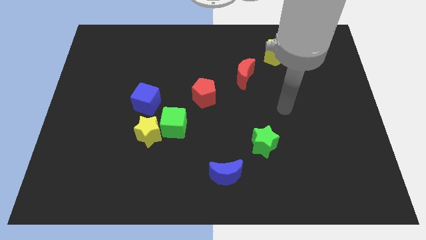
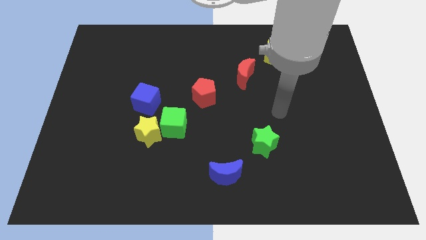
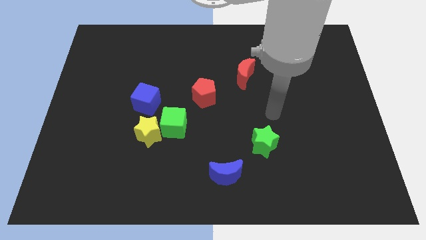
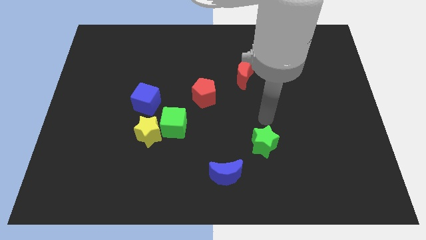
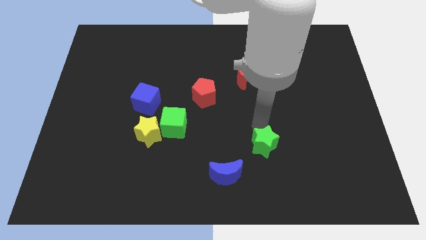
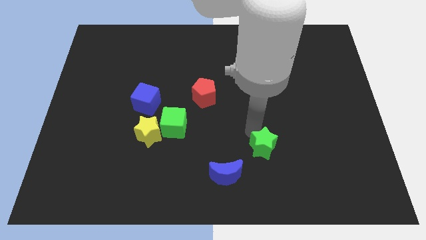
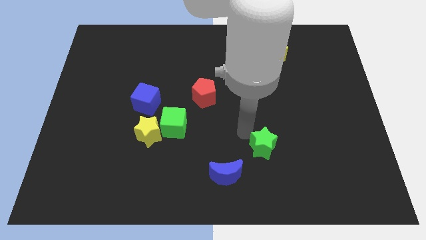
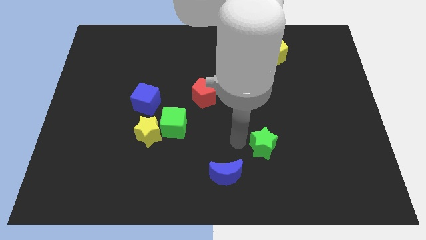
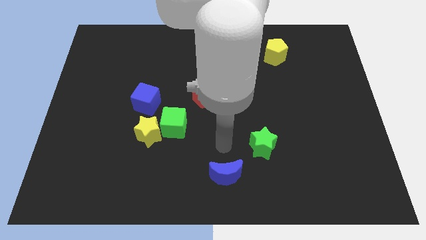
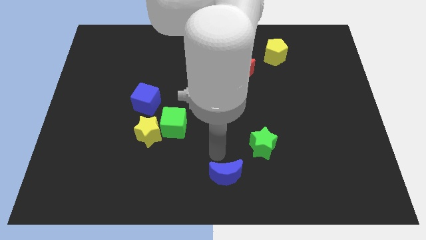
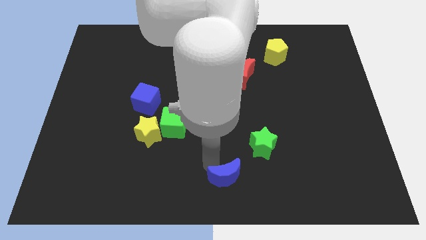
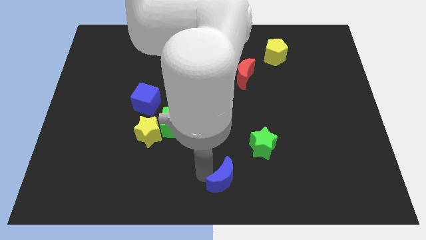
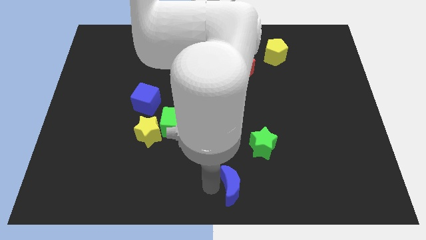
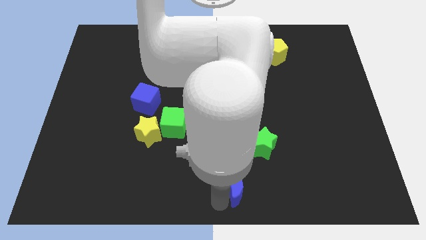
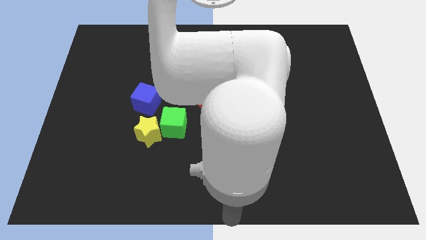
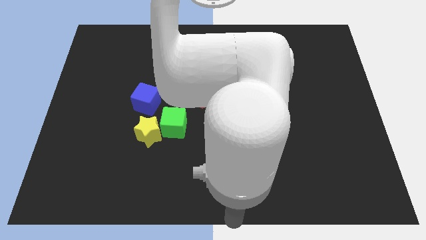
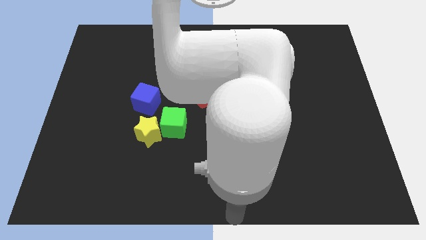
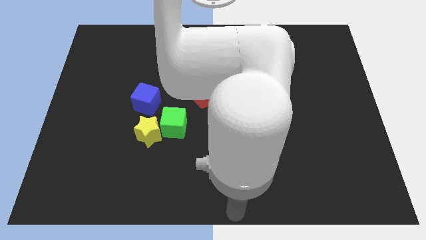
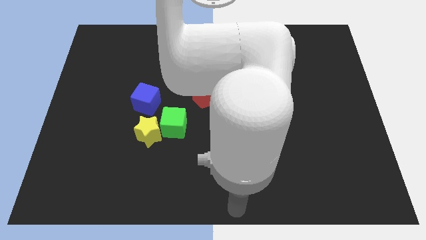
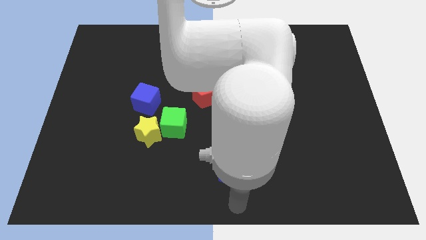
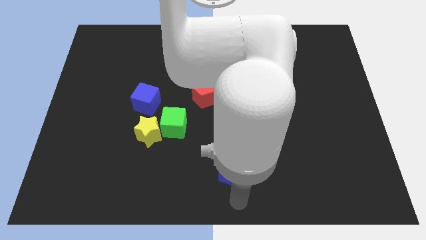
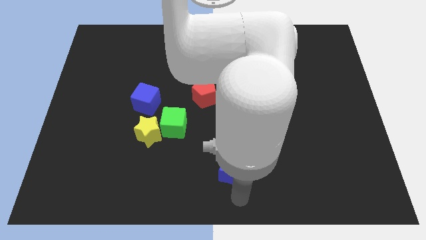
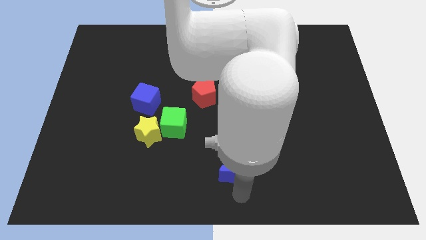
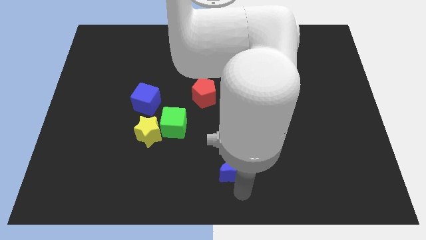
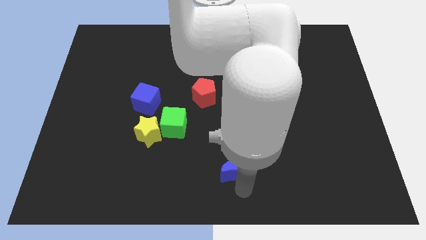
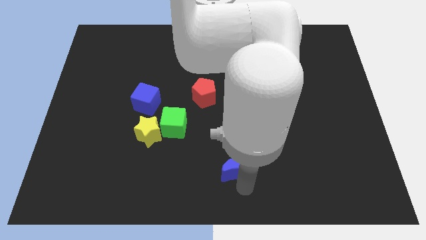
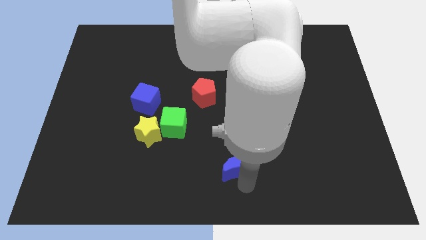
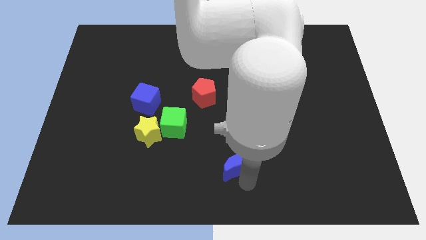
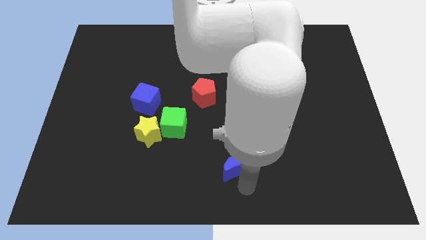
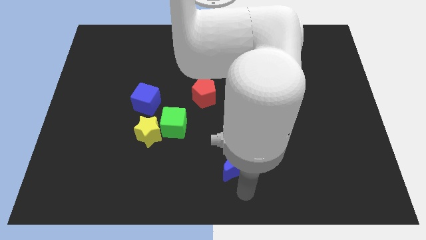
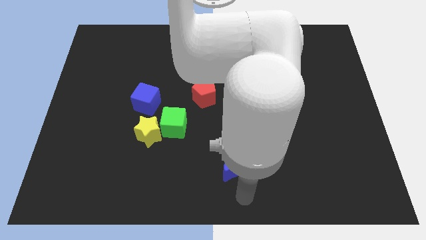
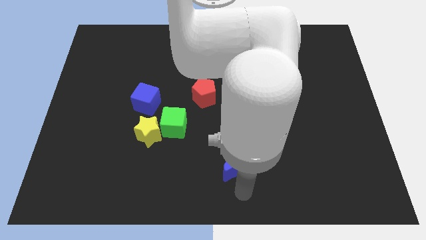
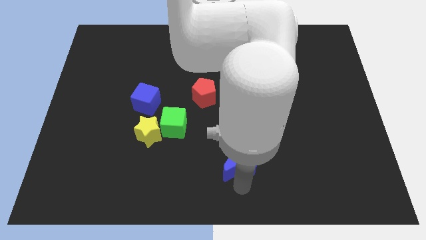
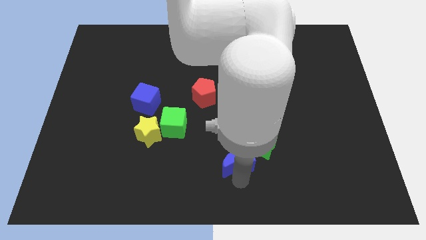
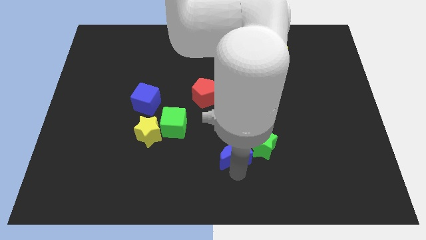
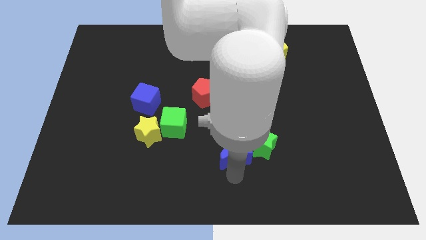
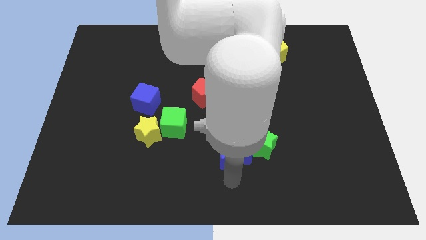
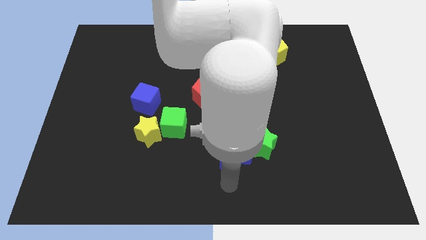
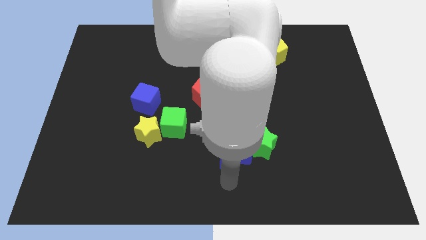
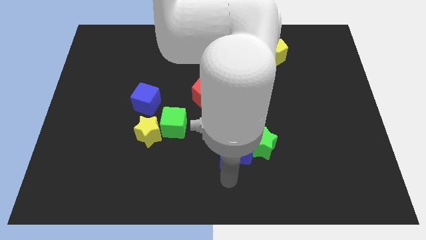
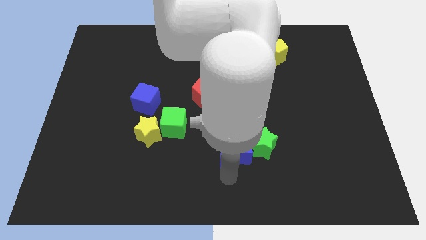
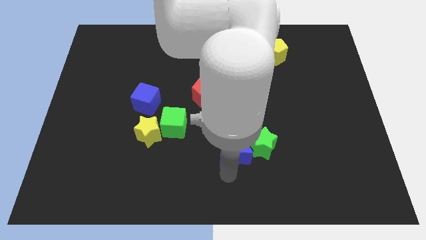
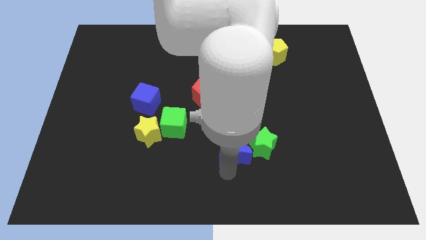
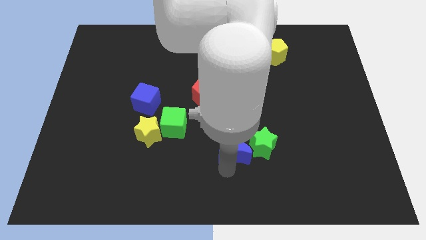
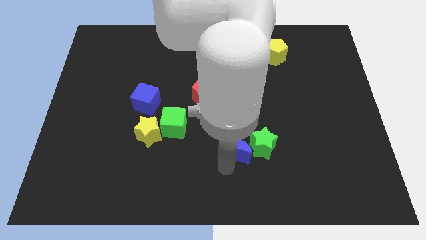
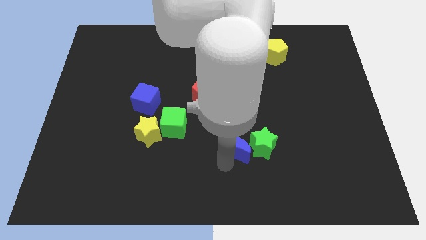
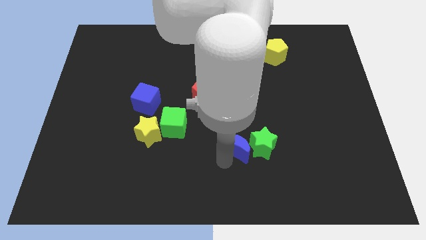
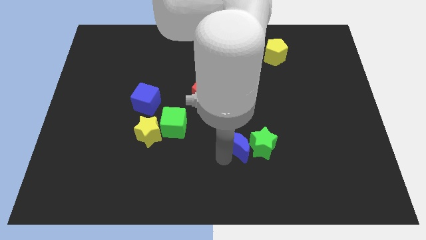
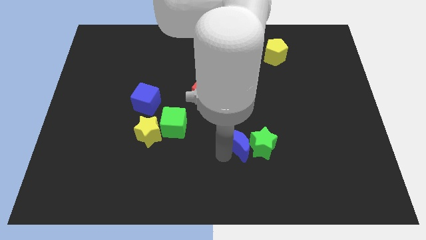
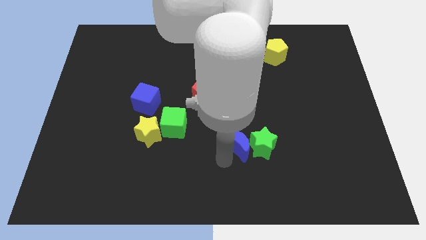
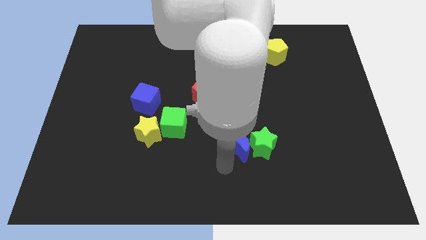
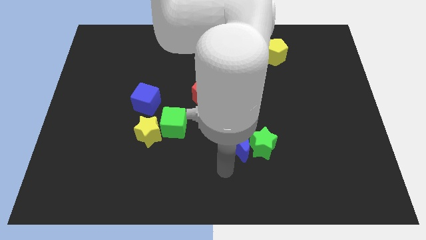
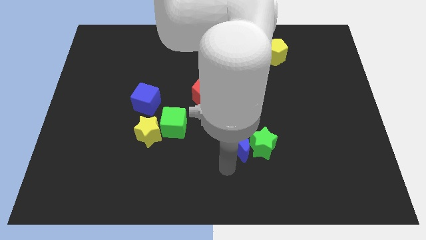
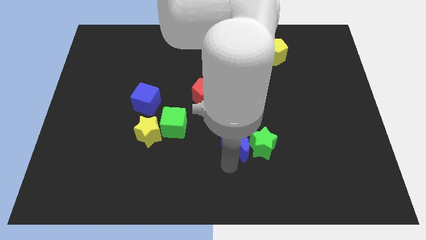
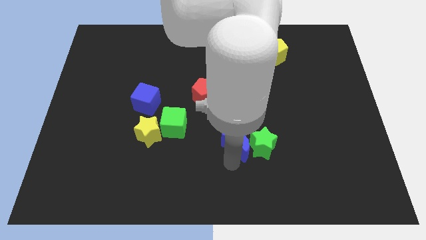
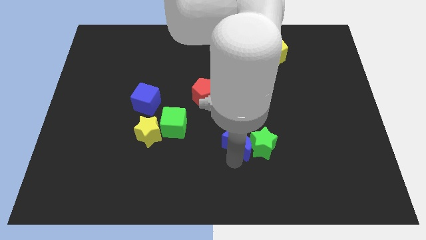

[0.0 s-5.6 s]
move the blue moon upwards and right a little

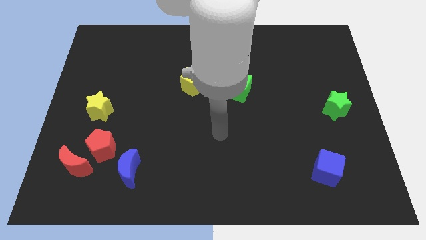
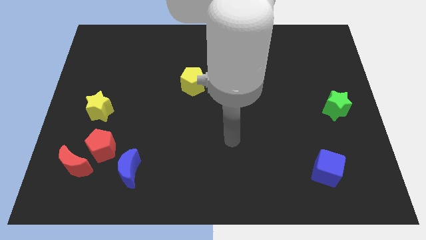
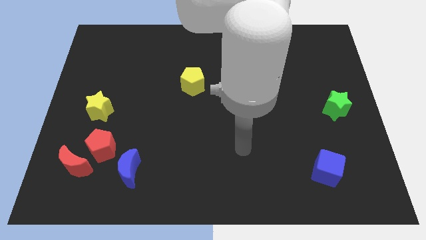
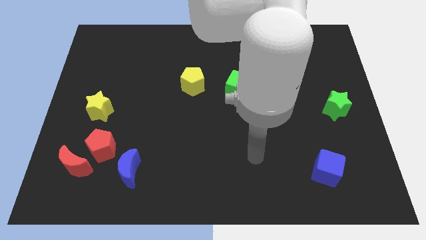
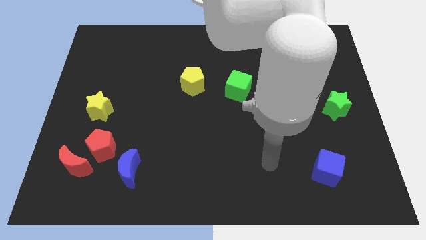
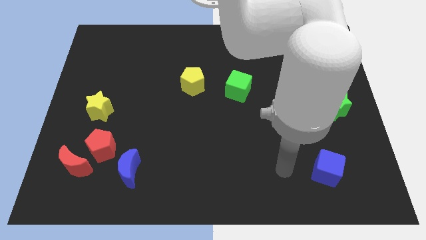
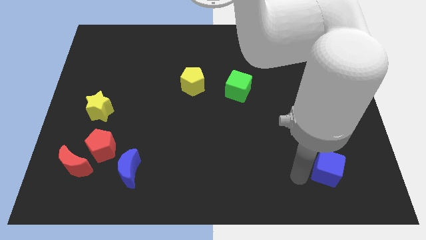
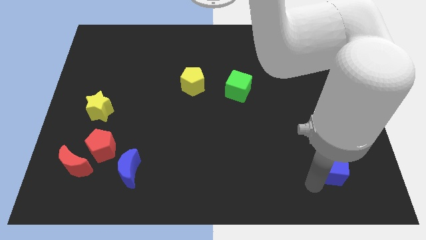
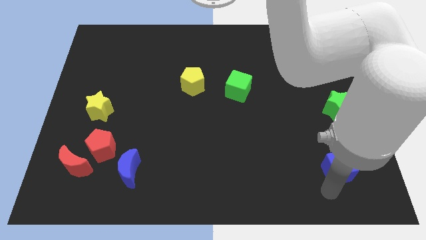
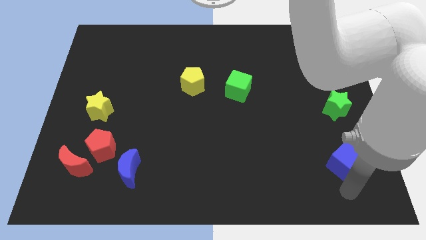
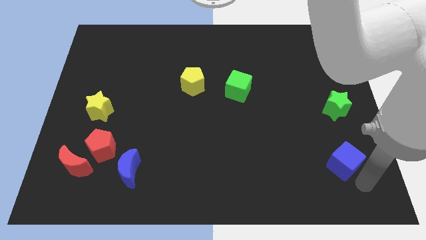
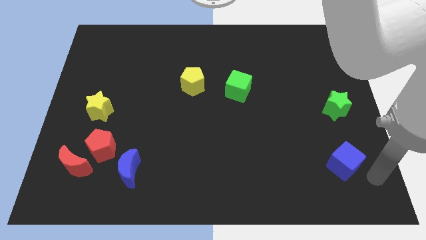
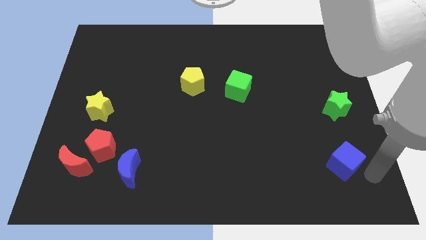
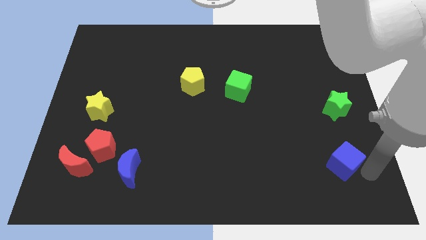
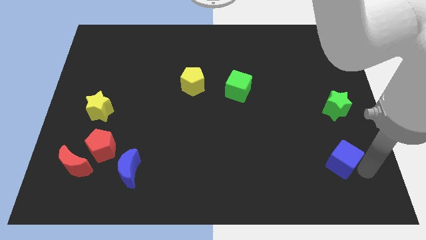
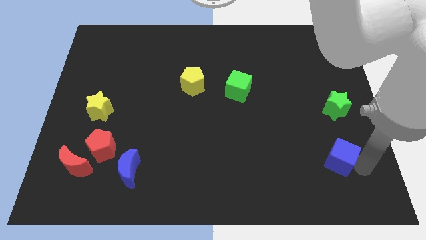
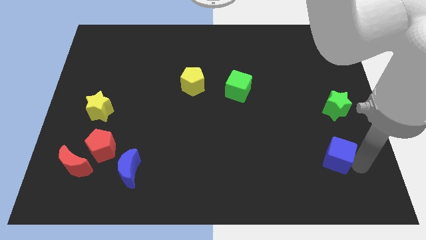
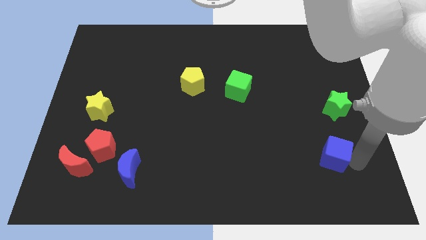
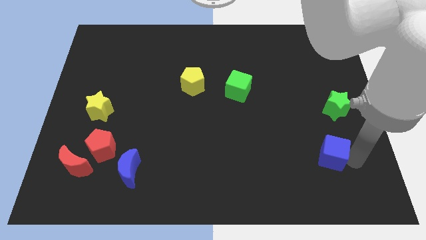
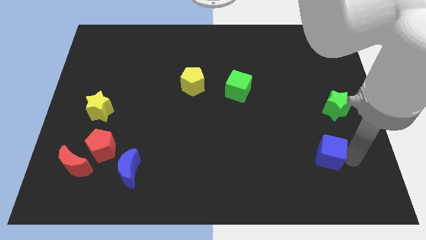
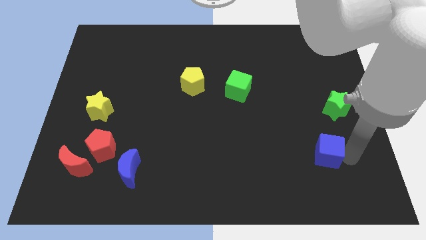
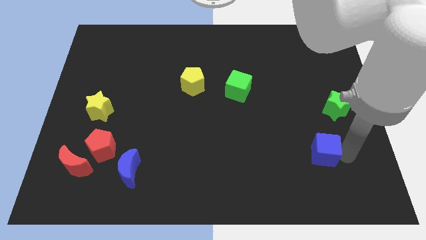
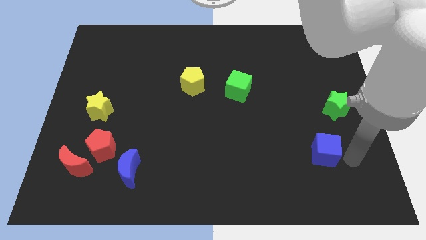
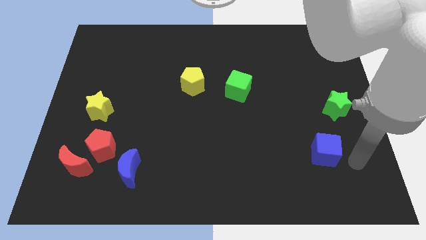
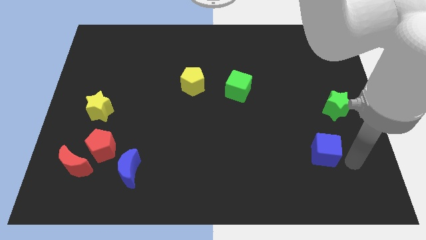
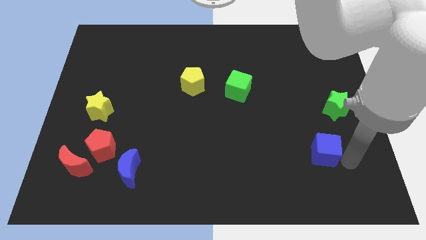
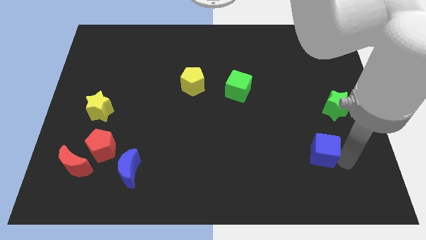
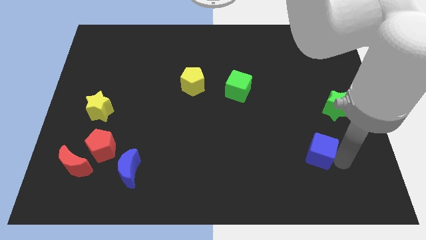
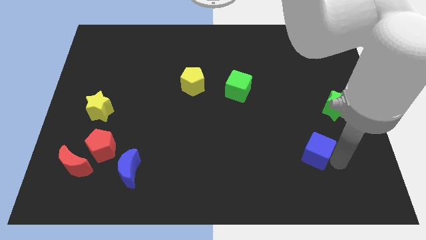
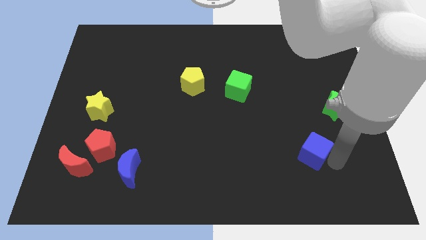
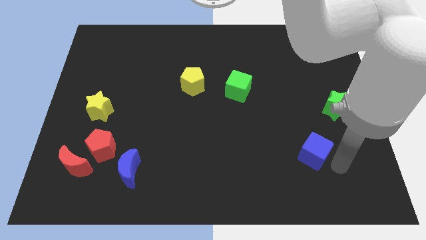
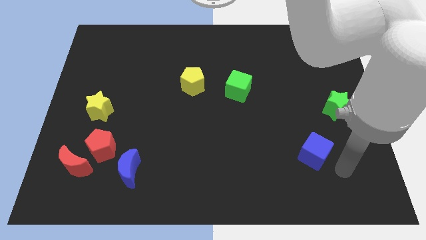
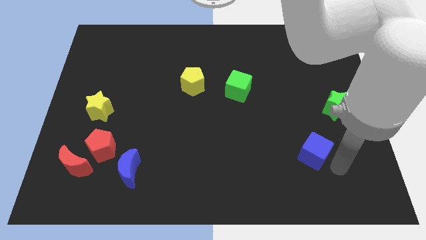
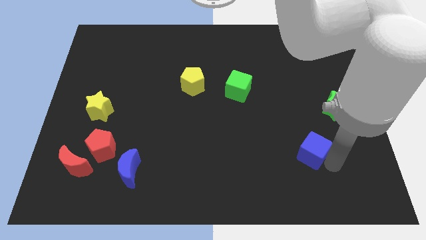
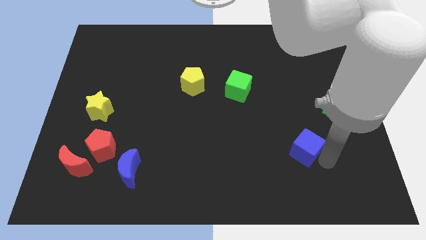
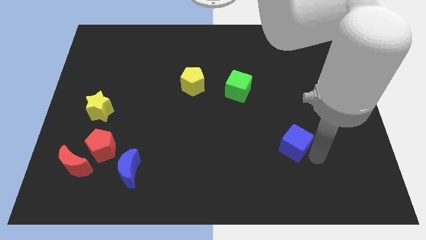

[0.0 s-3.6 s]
slightly slide the blue cube up and then to the left
